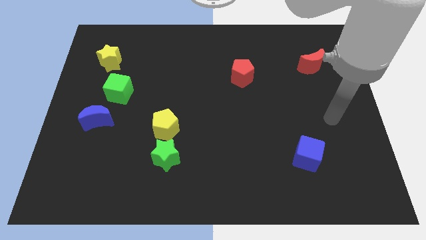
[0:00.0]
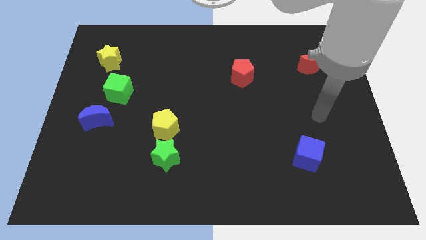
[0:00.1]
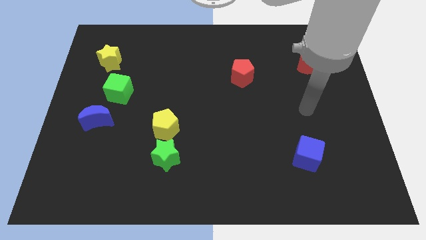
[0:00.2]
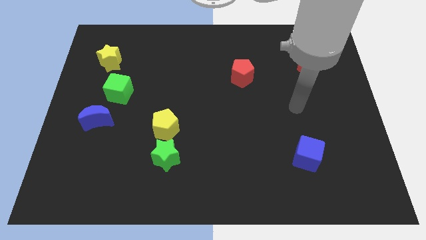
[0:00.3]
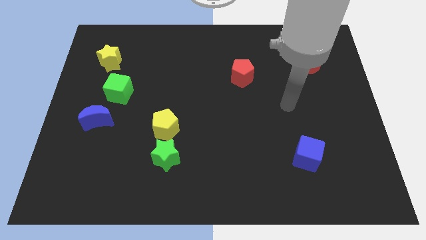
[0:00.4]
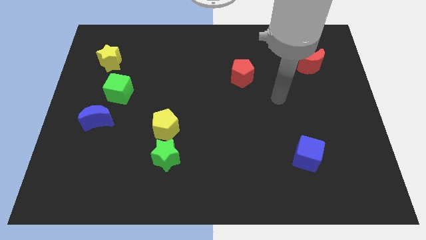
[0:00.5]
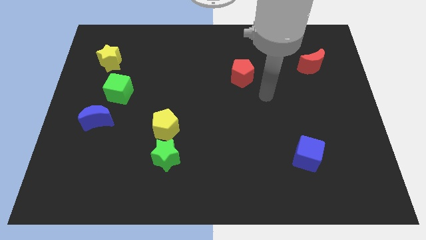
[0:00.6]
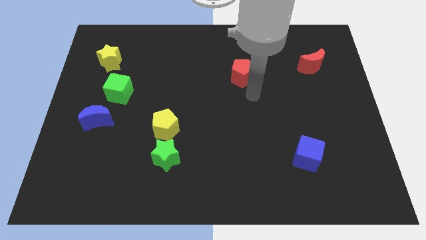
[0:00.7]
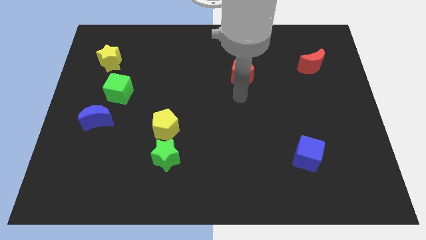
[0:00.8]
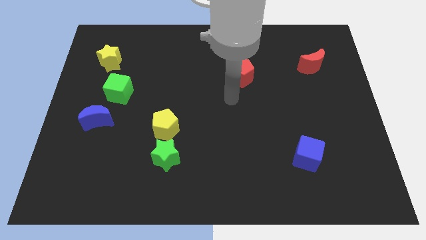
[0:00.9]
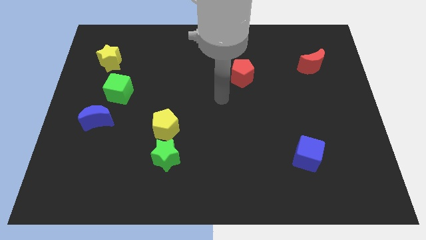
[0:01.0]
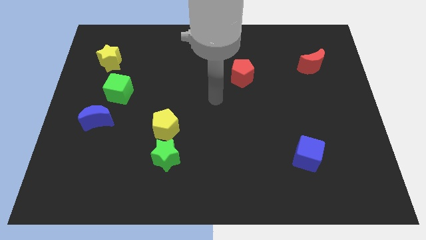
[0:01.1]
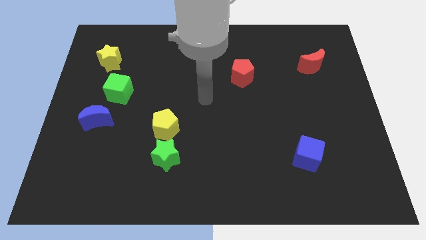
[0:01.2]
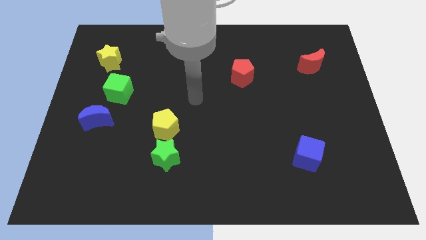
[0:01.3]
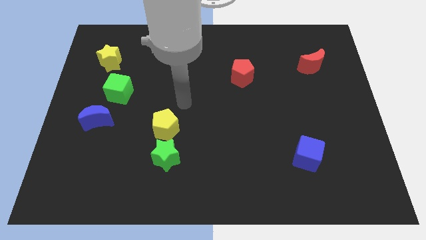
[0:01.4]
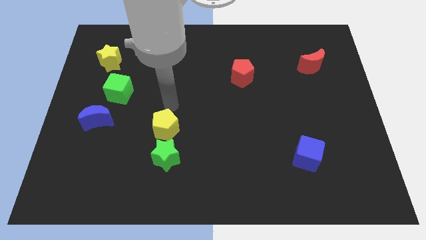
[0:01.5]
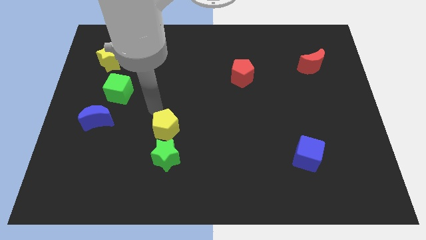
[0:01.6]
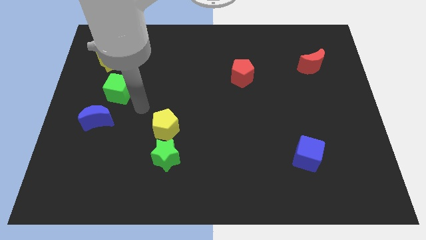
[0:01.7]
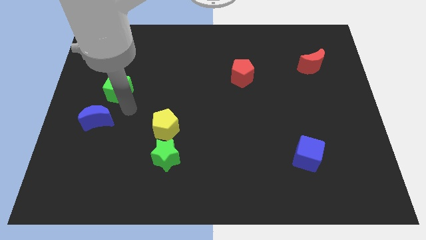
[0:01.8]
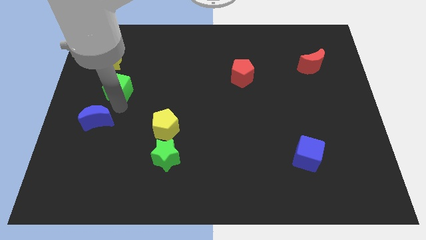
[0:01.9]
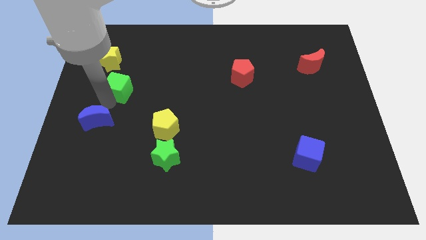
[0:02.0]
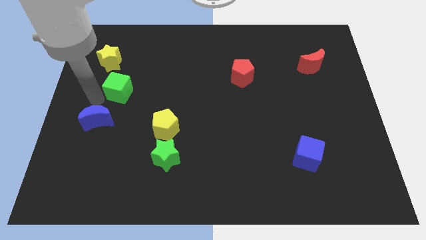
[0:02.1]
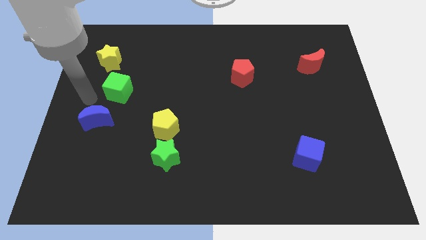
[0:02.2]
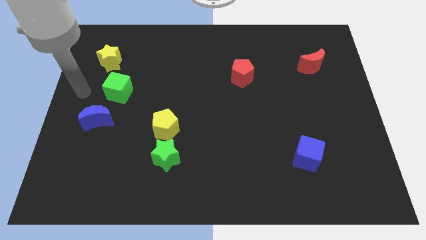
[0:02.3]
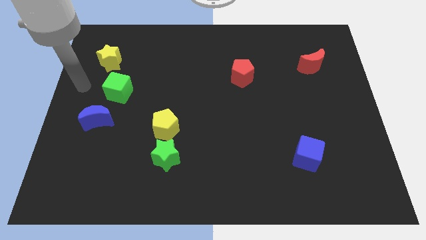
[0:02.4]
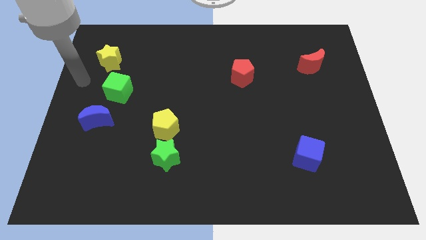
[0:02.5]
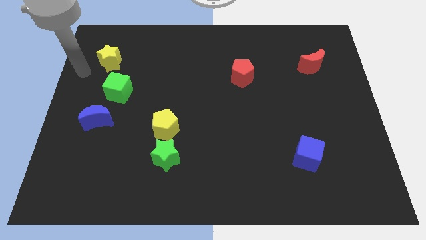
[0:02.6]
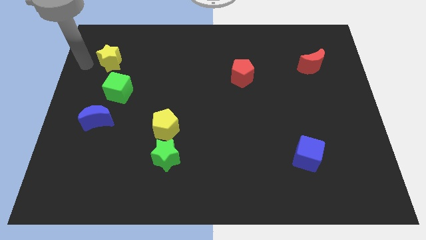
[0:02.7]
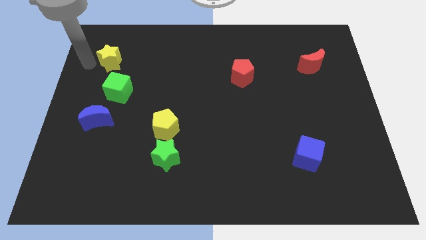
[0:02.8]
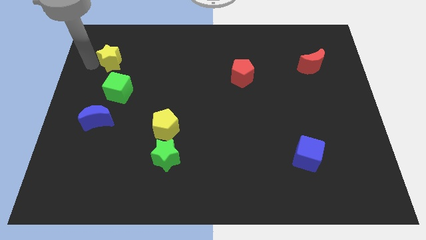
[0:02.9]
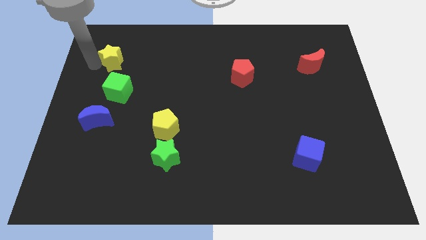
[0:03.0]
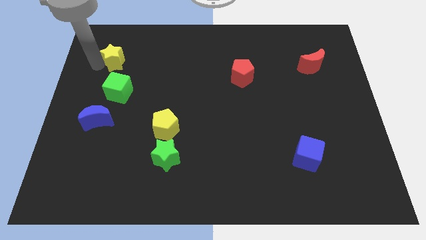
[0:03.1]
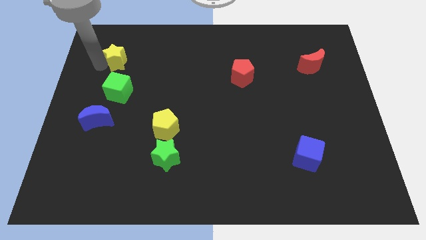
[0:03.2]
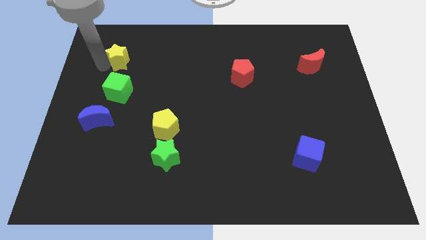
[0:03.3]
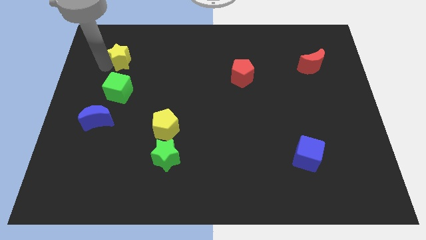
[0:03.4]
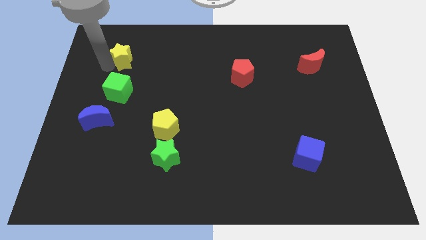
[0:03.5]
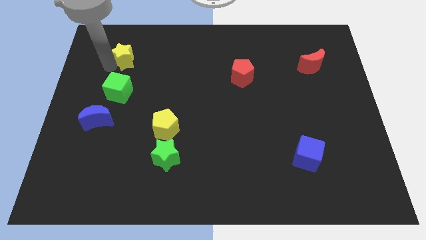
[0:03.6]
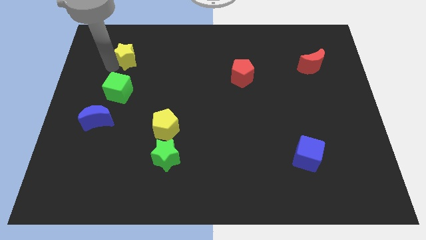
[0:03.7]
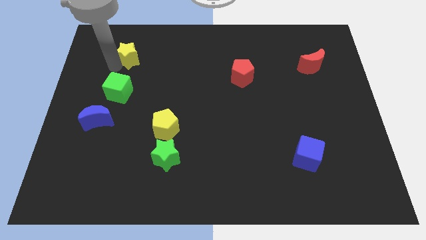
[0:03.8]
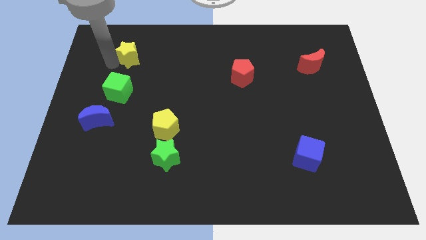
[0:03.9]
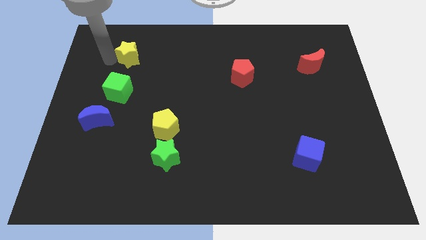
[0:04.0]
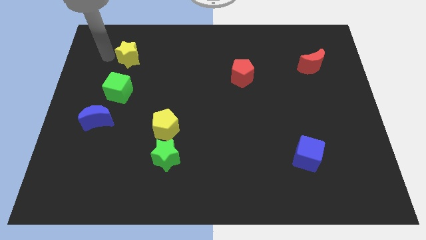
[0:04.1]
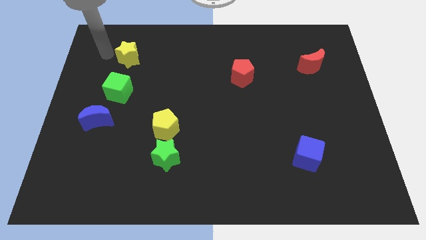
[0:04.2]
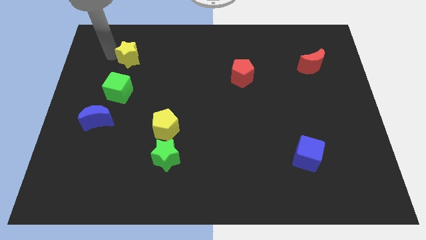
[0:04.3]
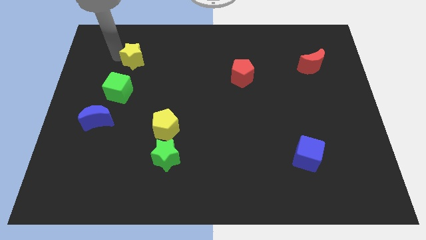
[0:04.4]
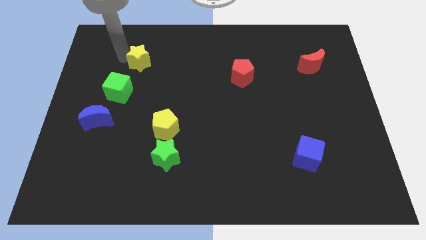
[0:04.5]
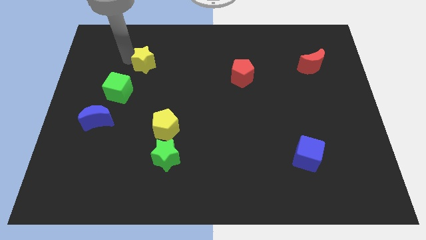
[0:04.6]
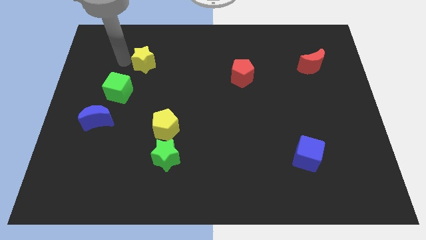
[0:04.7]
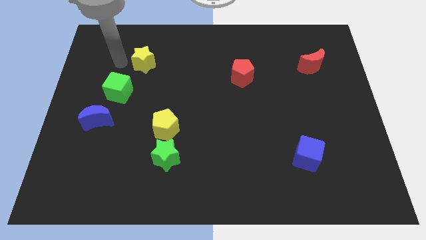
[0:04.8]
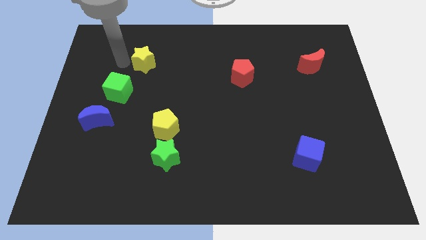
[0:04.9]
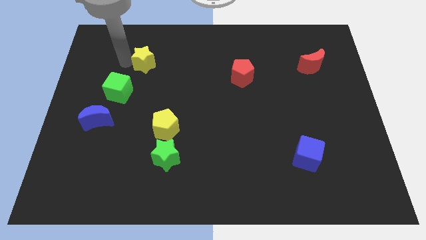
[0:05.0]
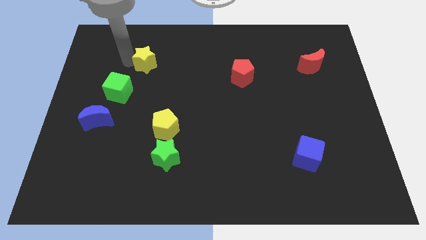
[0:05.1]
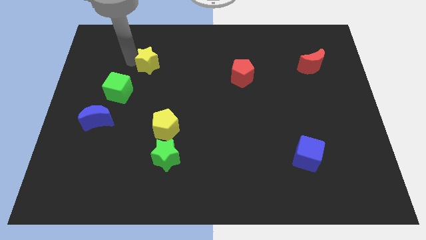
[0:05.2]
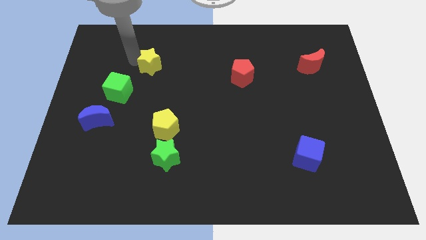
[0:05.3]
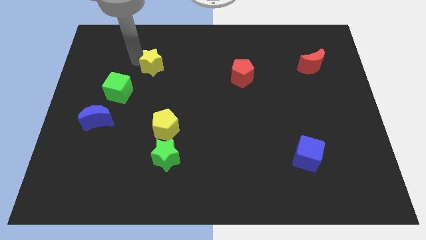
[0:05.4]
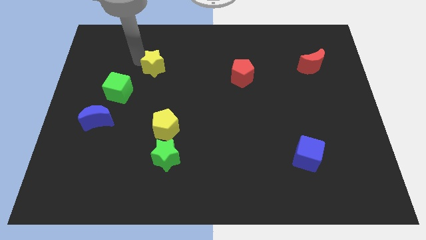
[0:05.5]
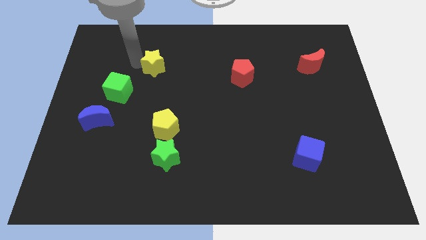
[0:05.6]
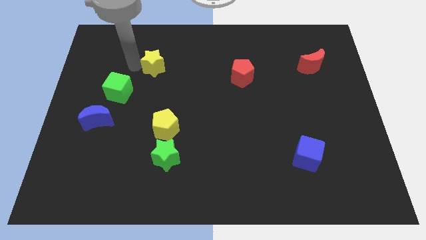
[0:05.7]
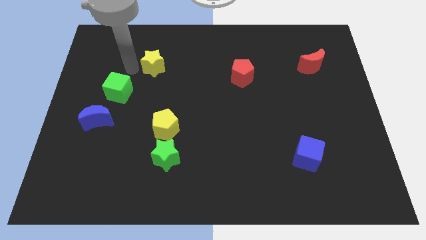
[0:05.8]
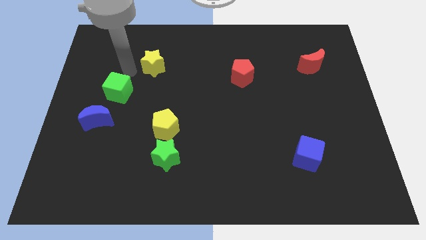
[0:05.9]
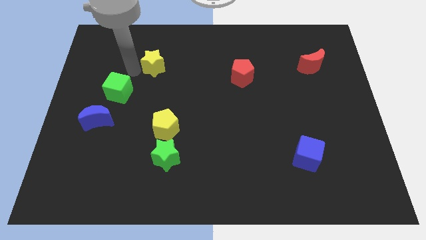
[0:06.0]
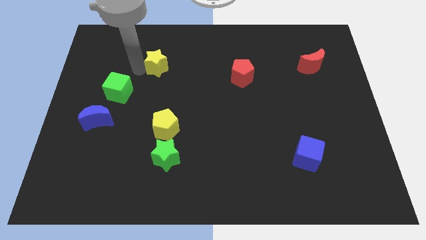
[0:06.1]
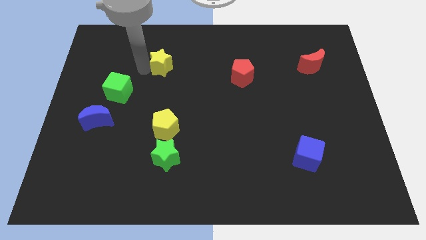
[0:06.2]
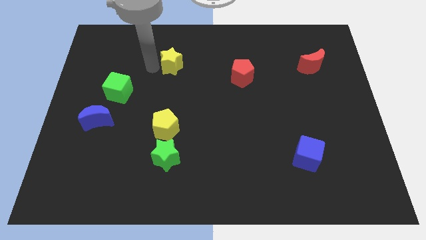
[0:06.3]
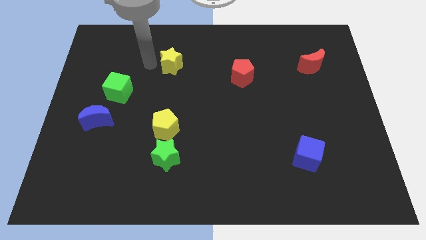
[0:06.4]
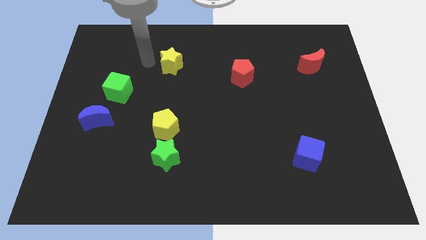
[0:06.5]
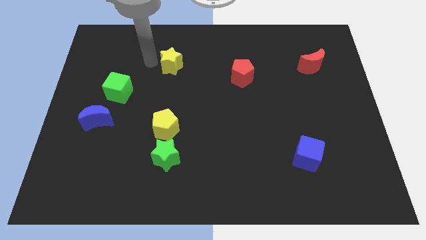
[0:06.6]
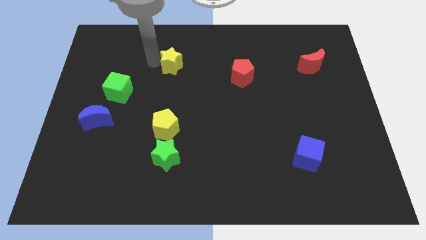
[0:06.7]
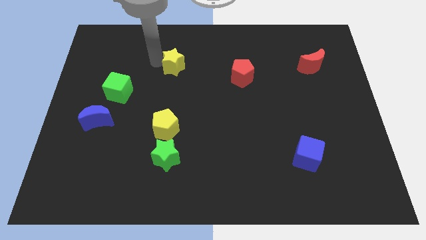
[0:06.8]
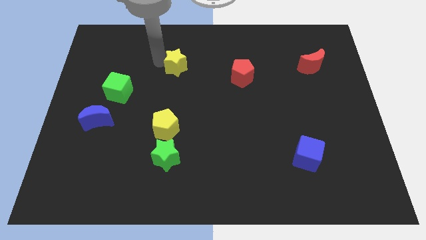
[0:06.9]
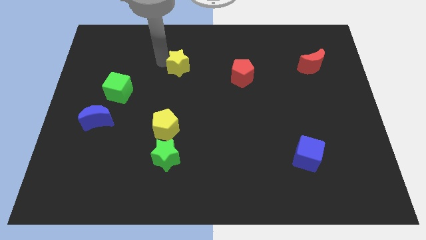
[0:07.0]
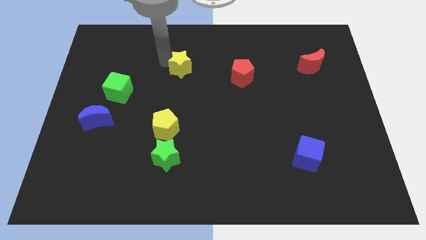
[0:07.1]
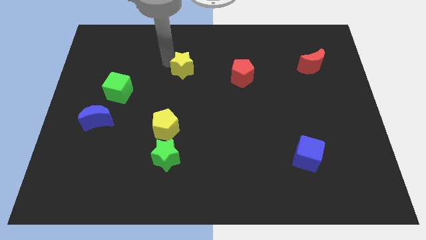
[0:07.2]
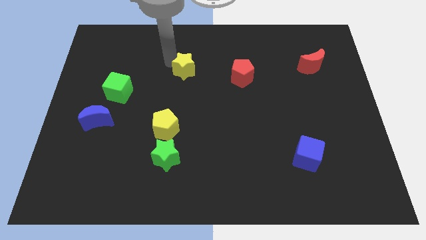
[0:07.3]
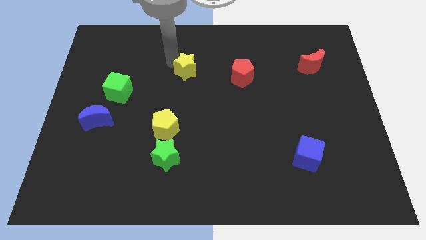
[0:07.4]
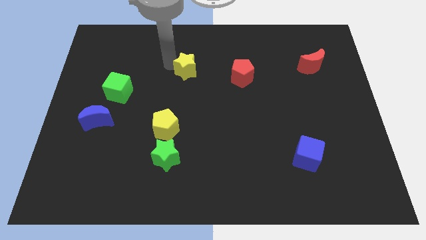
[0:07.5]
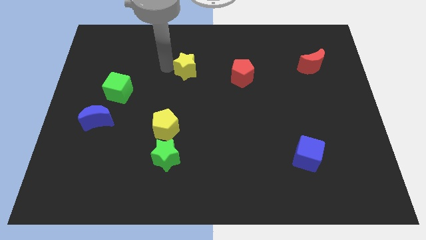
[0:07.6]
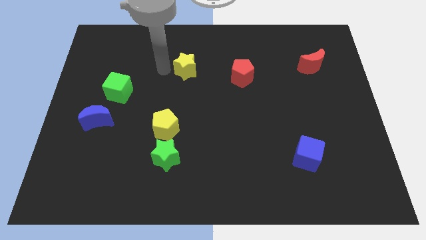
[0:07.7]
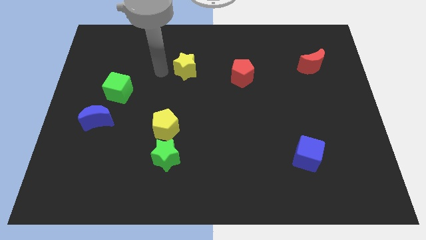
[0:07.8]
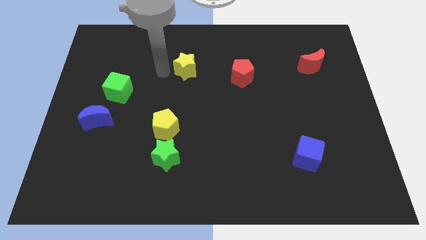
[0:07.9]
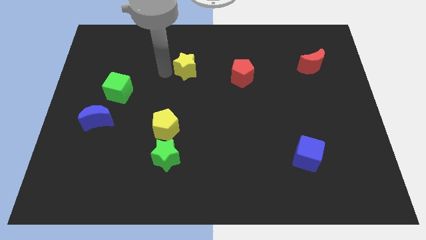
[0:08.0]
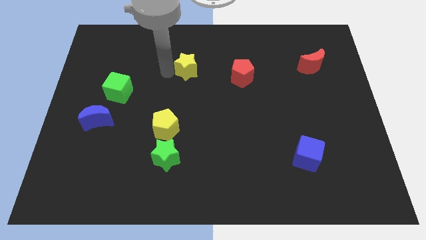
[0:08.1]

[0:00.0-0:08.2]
push the yellow star to the right
